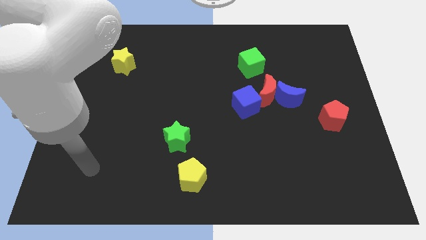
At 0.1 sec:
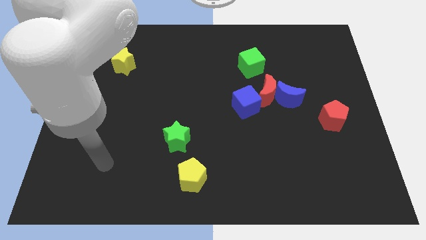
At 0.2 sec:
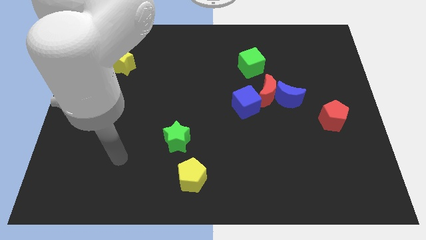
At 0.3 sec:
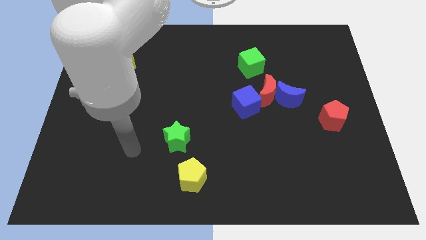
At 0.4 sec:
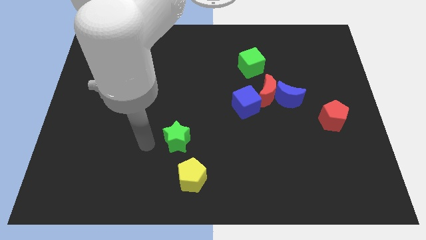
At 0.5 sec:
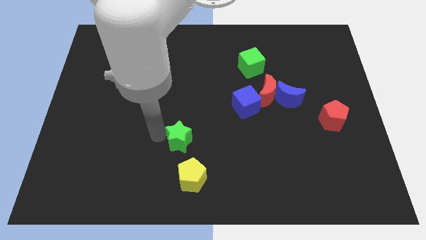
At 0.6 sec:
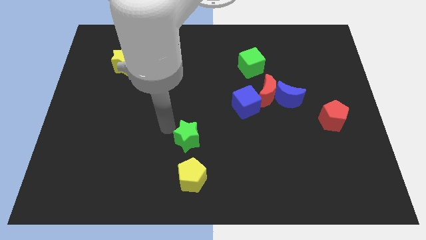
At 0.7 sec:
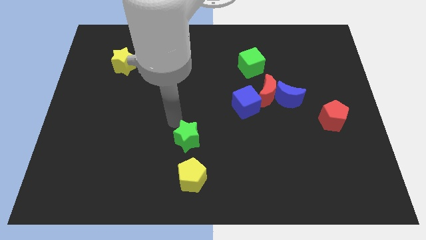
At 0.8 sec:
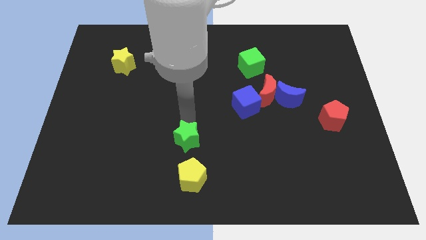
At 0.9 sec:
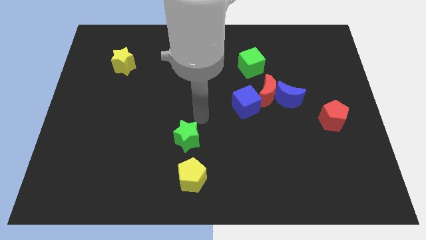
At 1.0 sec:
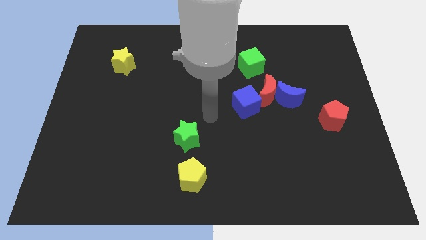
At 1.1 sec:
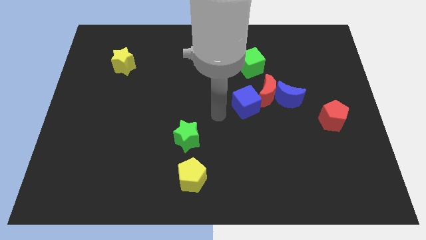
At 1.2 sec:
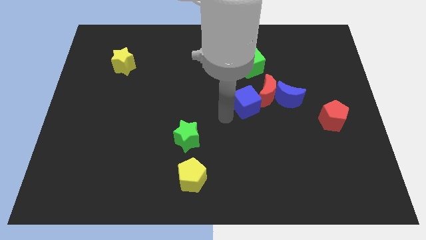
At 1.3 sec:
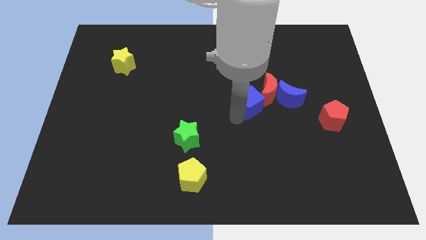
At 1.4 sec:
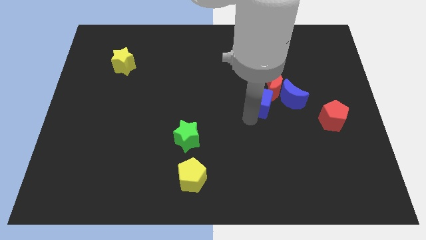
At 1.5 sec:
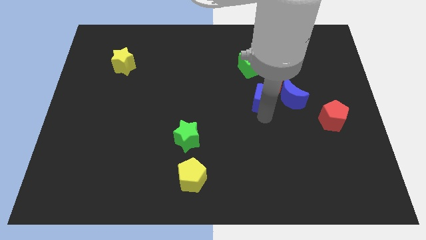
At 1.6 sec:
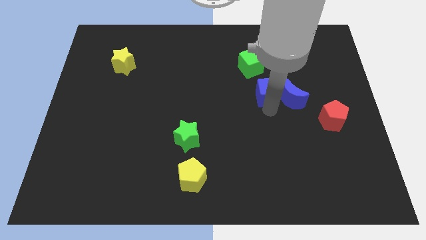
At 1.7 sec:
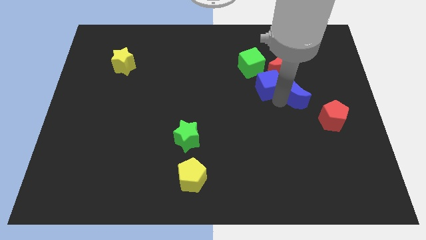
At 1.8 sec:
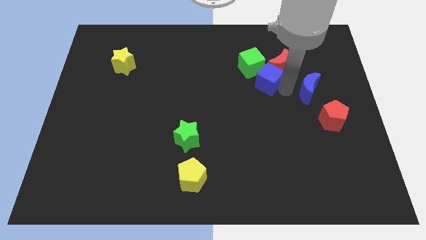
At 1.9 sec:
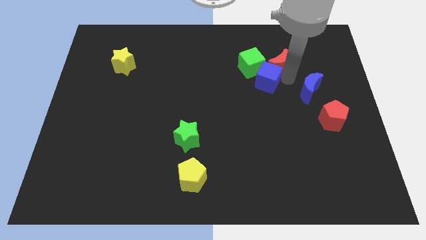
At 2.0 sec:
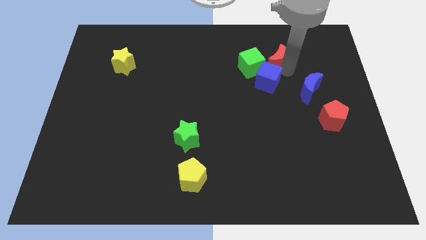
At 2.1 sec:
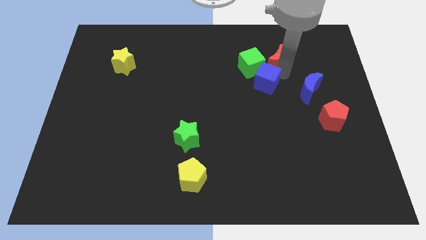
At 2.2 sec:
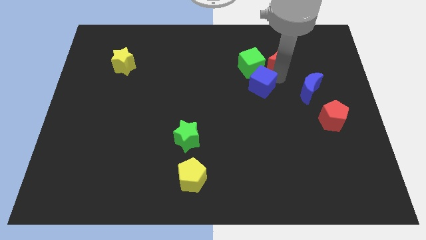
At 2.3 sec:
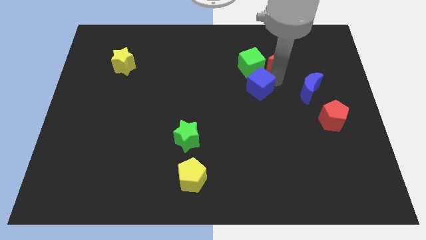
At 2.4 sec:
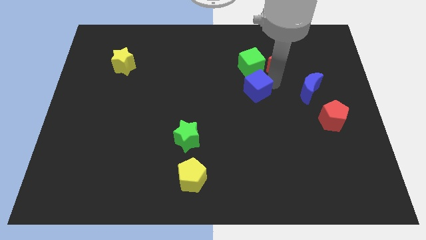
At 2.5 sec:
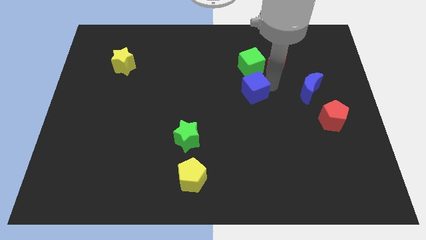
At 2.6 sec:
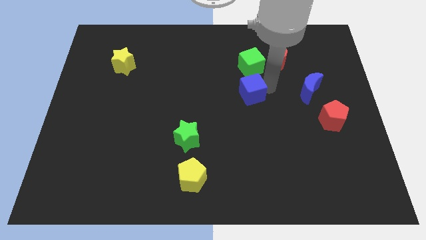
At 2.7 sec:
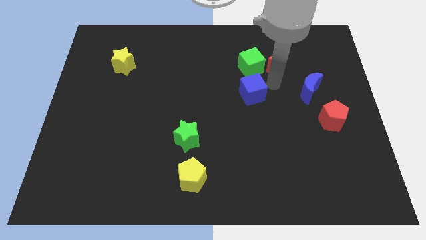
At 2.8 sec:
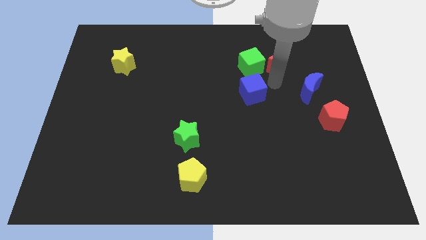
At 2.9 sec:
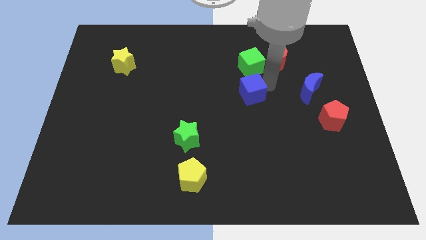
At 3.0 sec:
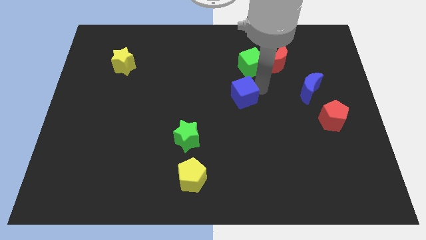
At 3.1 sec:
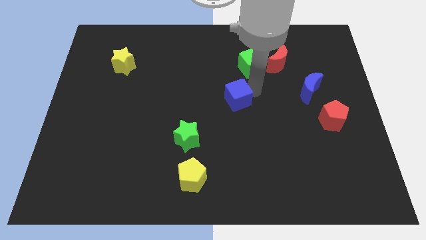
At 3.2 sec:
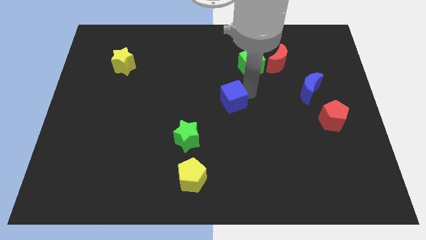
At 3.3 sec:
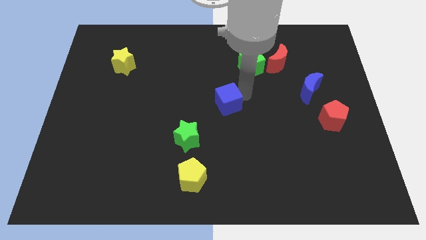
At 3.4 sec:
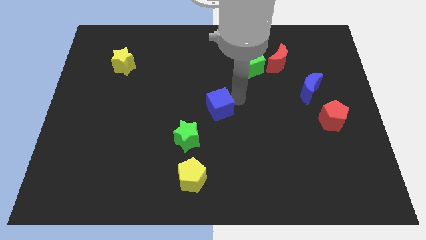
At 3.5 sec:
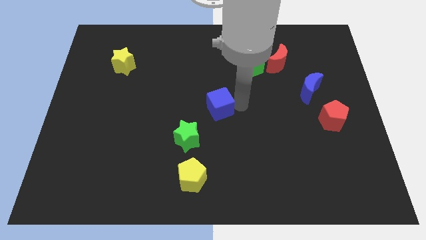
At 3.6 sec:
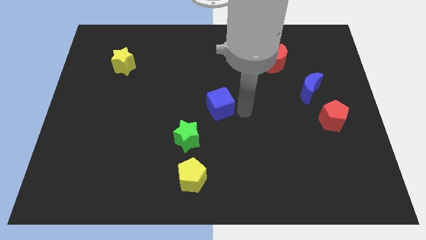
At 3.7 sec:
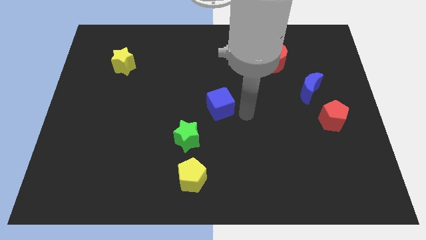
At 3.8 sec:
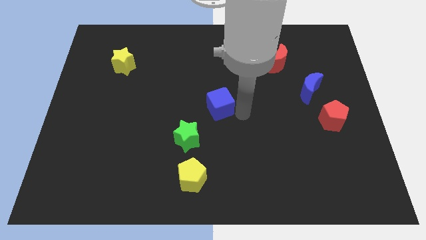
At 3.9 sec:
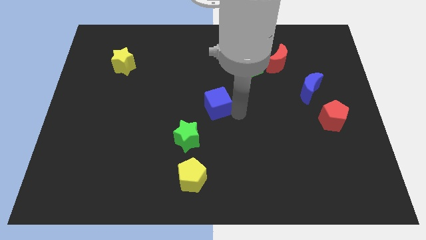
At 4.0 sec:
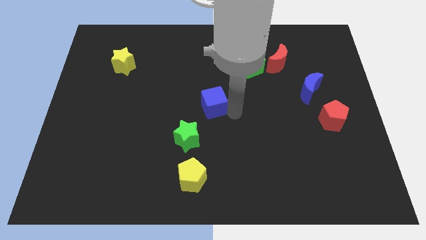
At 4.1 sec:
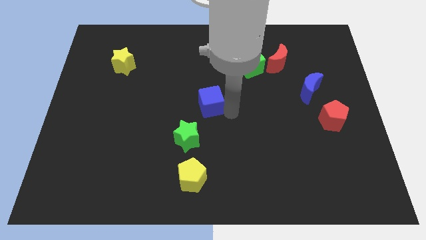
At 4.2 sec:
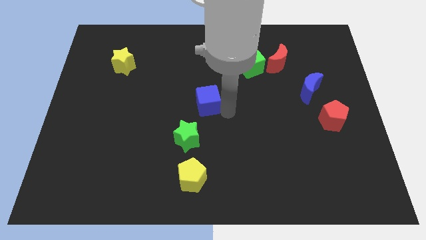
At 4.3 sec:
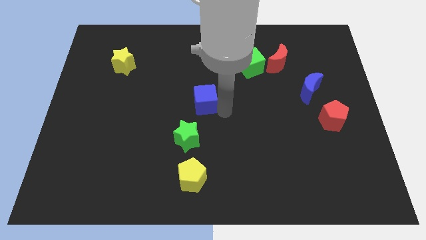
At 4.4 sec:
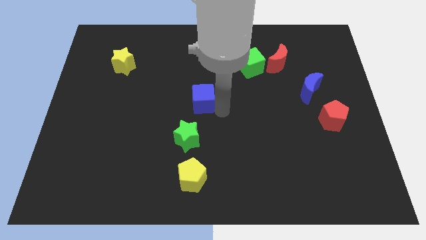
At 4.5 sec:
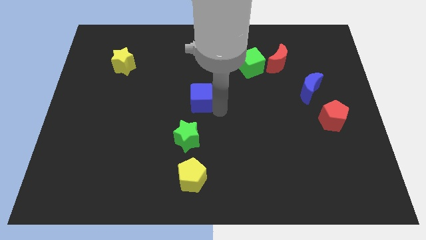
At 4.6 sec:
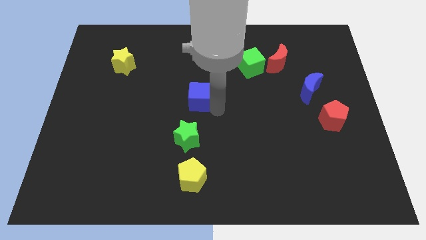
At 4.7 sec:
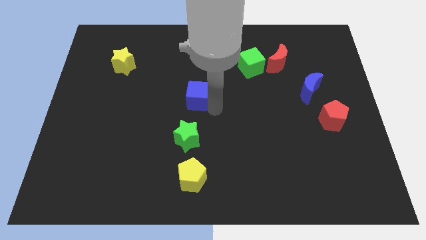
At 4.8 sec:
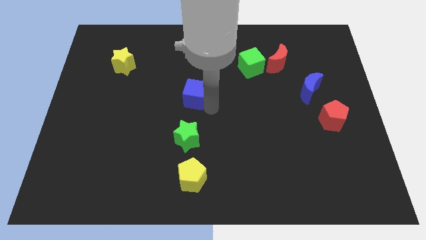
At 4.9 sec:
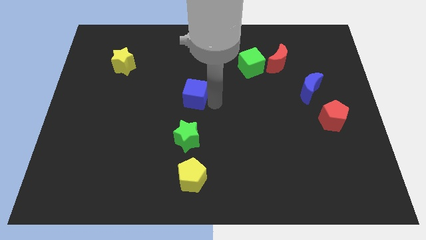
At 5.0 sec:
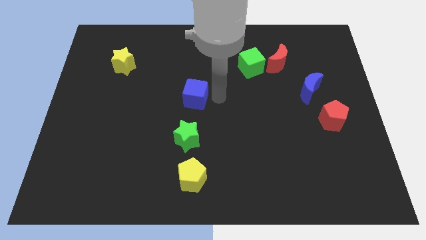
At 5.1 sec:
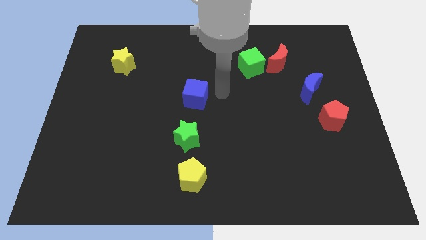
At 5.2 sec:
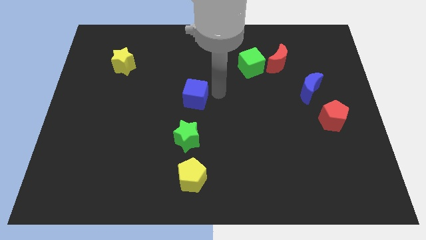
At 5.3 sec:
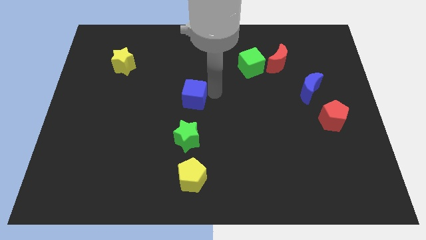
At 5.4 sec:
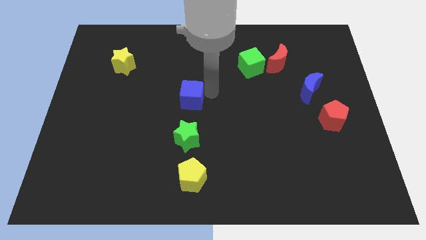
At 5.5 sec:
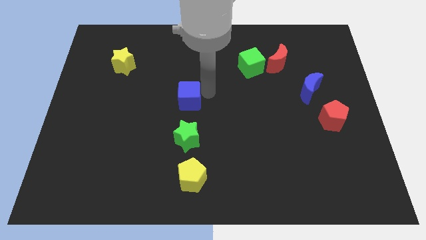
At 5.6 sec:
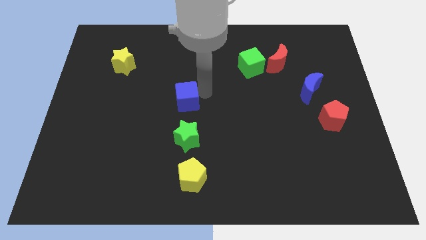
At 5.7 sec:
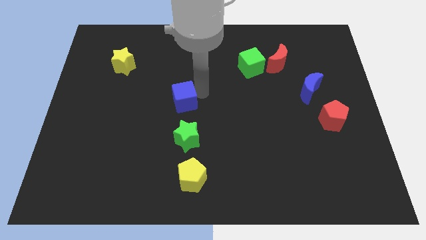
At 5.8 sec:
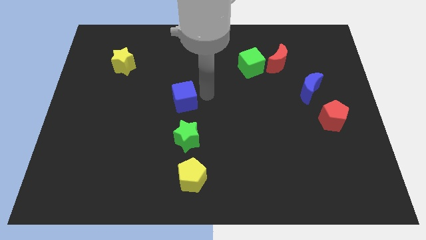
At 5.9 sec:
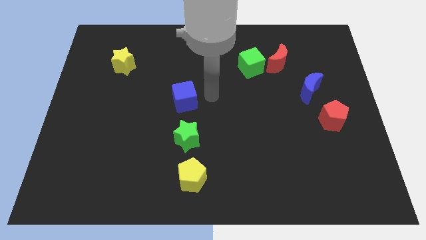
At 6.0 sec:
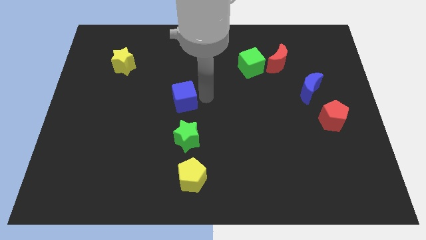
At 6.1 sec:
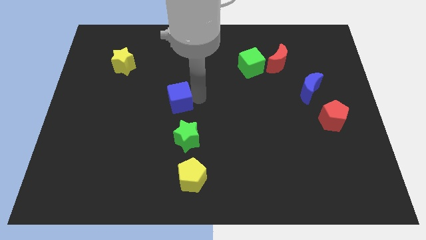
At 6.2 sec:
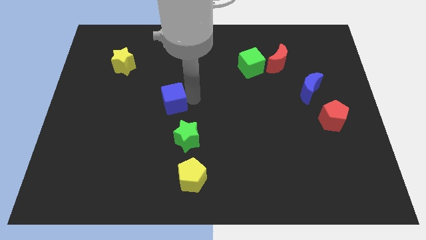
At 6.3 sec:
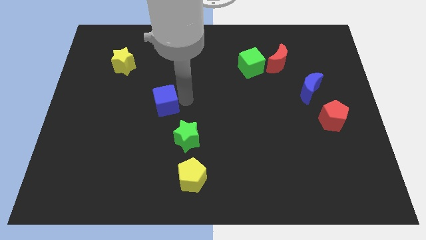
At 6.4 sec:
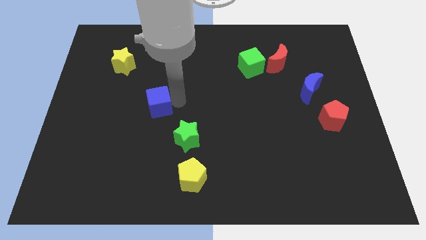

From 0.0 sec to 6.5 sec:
slide the blue cube to the left

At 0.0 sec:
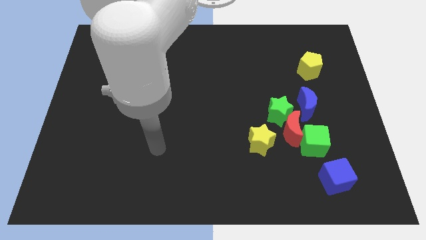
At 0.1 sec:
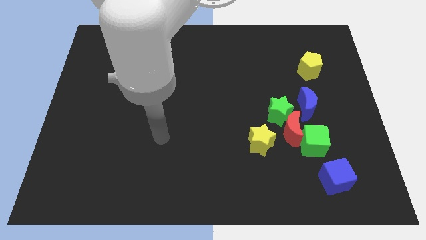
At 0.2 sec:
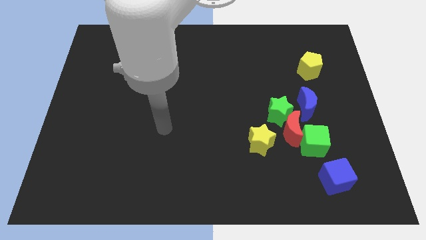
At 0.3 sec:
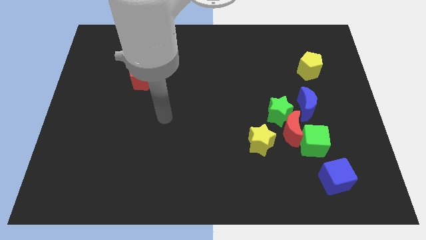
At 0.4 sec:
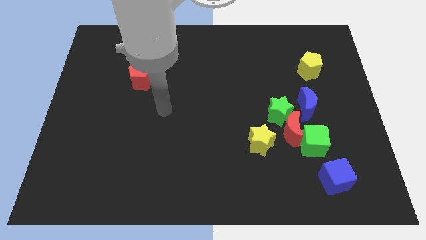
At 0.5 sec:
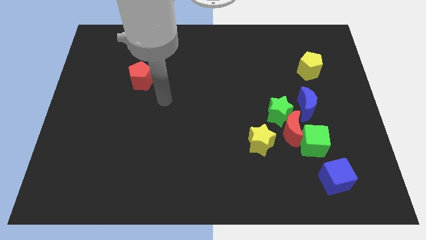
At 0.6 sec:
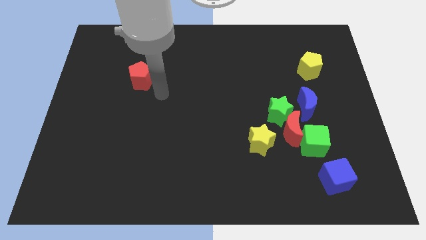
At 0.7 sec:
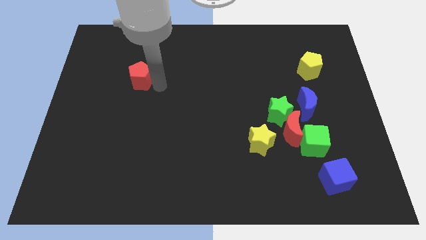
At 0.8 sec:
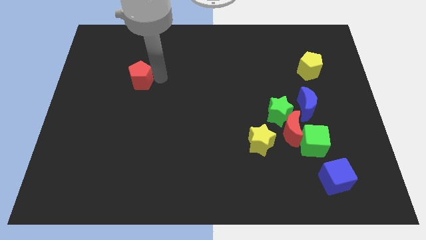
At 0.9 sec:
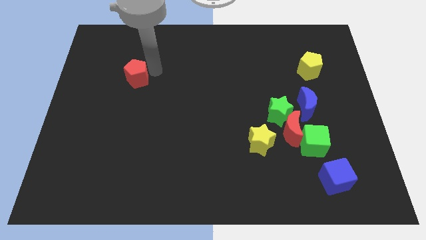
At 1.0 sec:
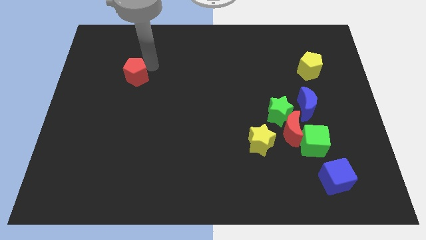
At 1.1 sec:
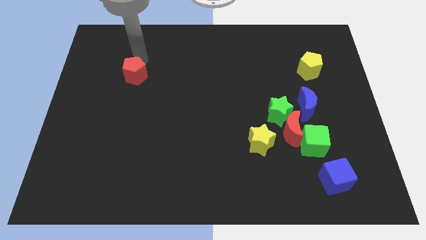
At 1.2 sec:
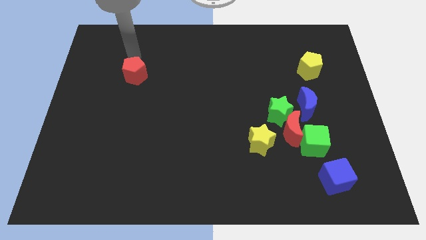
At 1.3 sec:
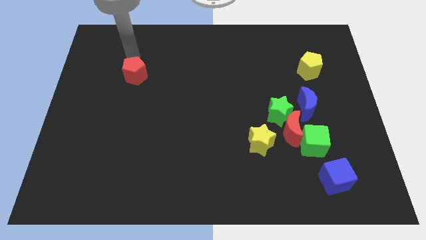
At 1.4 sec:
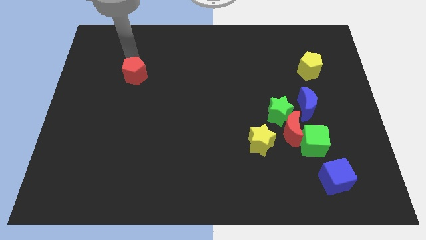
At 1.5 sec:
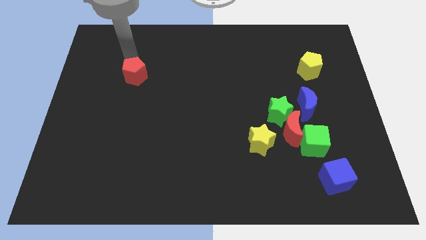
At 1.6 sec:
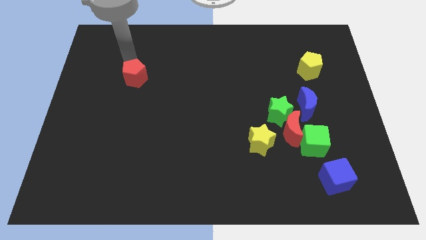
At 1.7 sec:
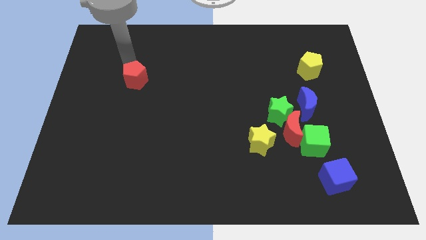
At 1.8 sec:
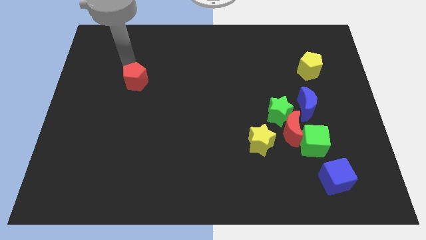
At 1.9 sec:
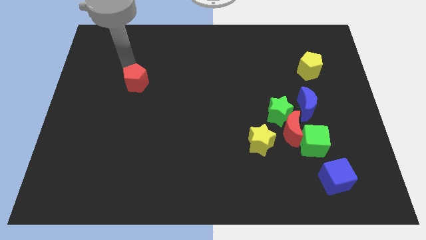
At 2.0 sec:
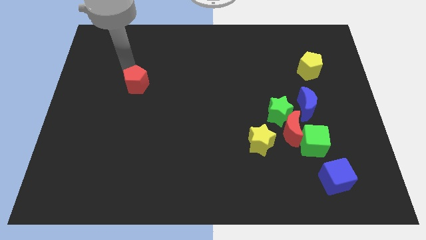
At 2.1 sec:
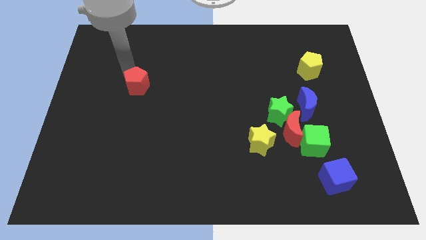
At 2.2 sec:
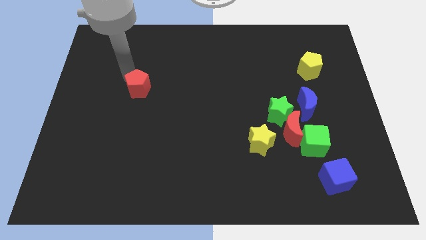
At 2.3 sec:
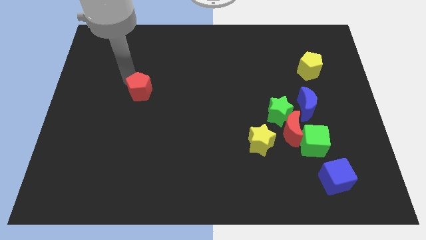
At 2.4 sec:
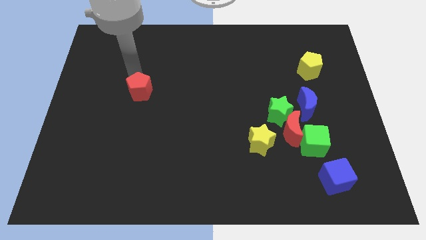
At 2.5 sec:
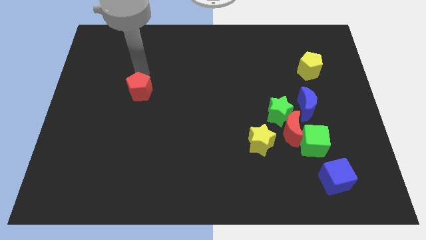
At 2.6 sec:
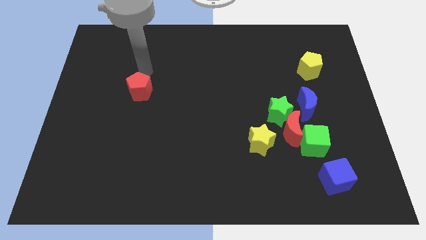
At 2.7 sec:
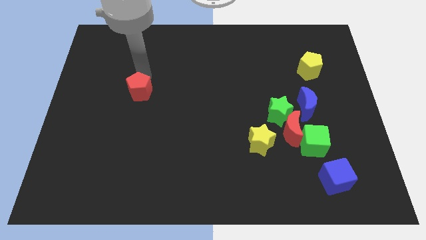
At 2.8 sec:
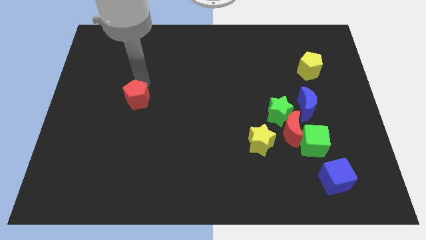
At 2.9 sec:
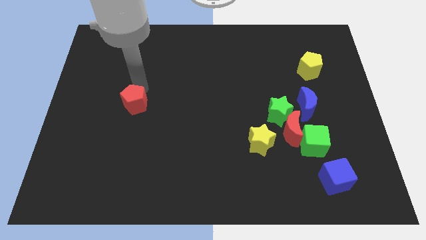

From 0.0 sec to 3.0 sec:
push the red pentagon a little downwards
